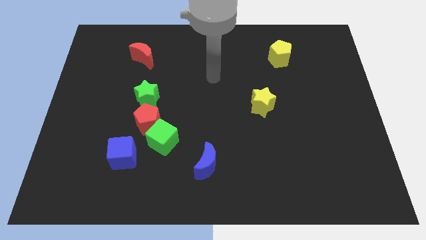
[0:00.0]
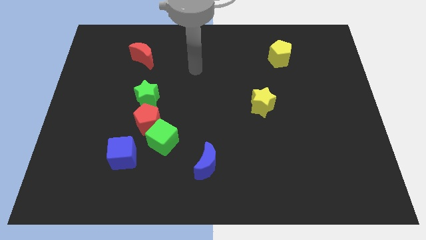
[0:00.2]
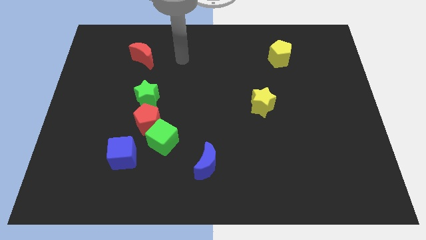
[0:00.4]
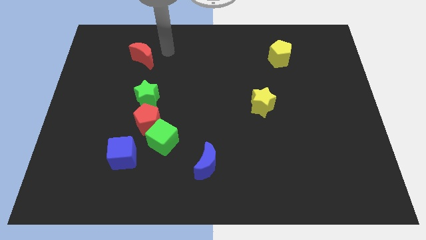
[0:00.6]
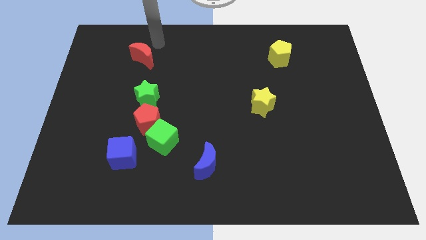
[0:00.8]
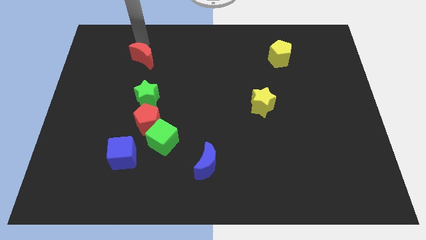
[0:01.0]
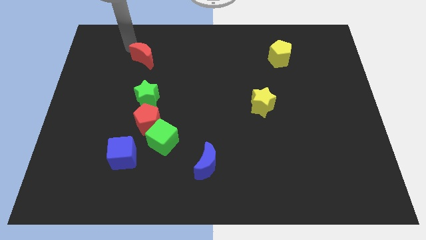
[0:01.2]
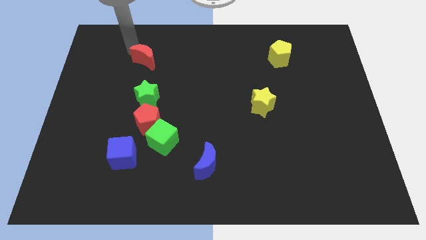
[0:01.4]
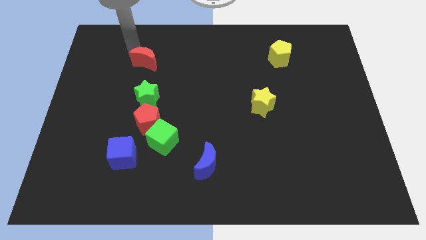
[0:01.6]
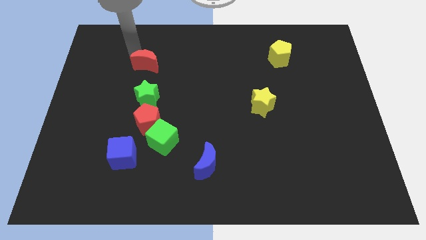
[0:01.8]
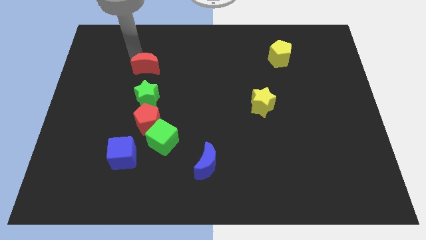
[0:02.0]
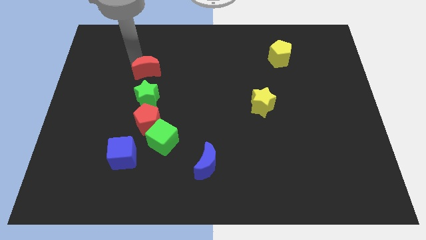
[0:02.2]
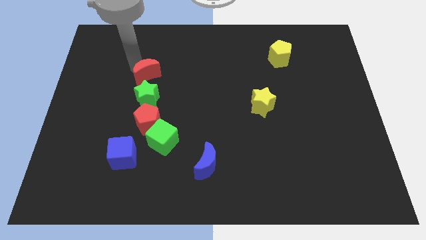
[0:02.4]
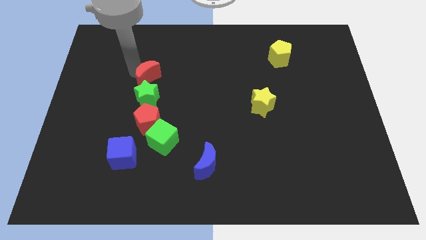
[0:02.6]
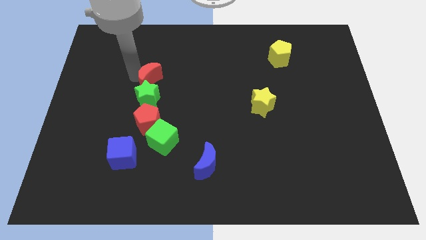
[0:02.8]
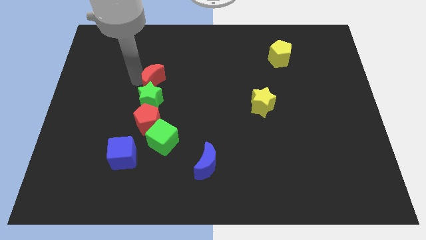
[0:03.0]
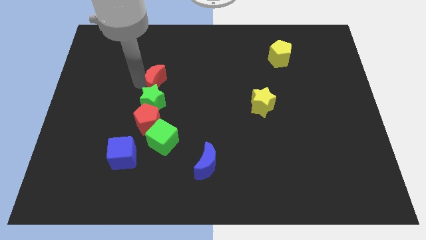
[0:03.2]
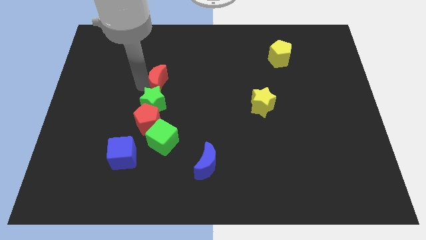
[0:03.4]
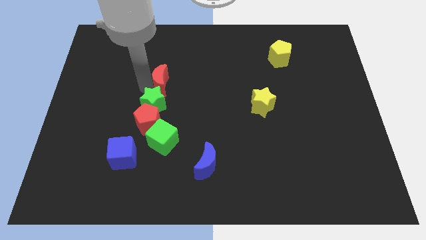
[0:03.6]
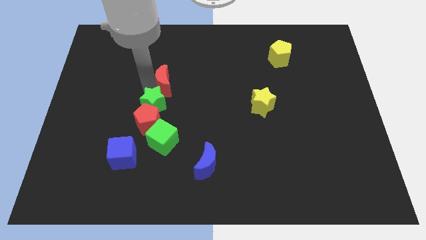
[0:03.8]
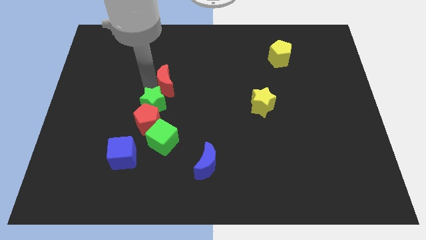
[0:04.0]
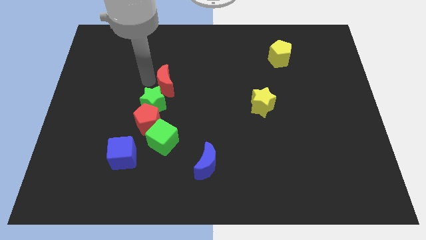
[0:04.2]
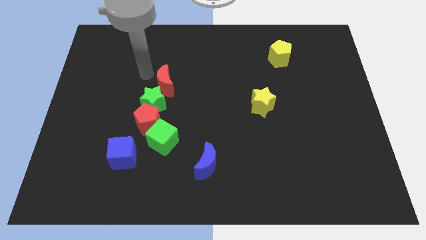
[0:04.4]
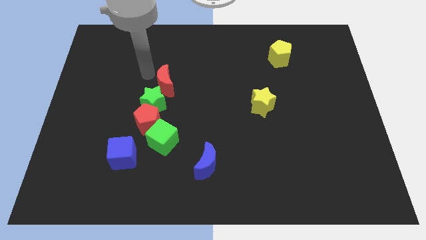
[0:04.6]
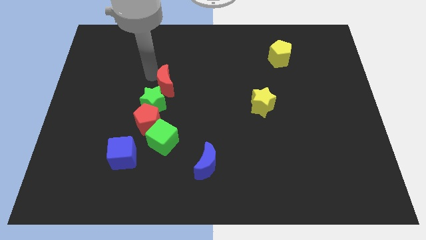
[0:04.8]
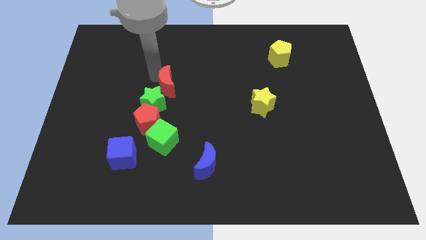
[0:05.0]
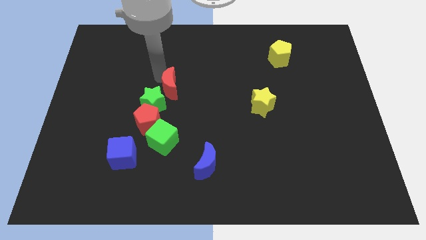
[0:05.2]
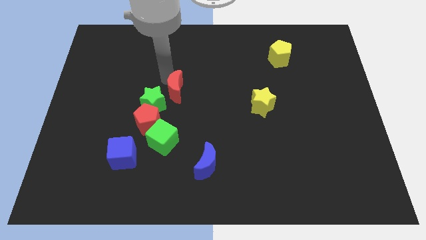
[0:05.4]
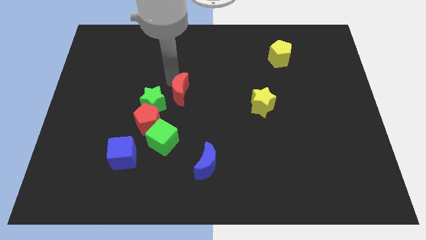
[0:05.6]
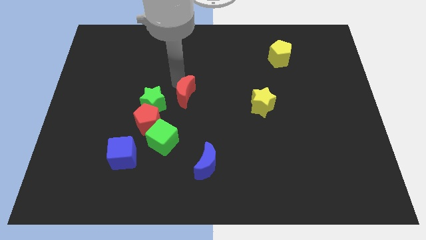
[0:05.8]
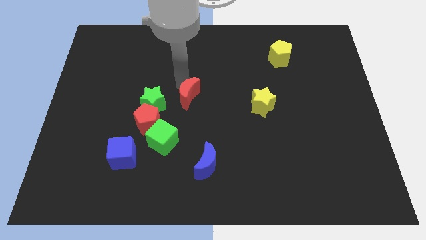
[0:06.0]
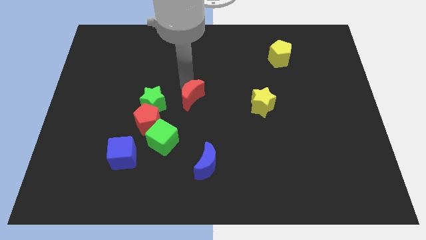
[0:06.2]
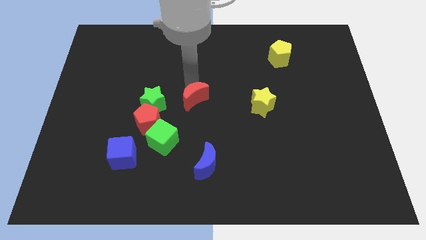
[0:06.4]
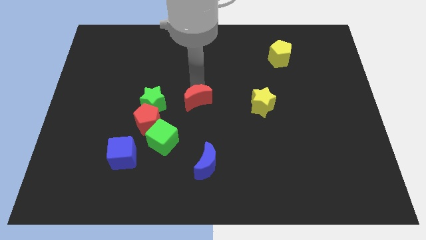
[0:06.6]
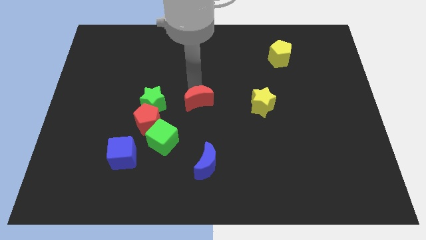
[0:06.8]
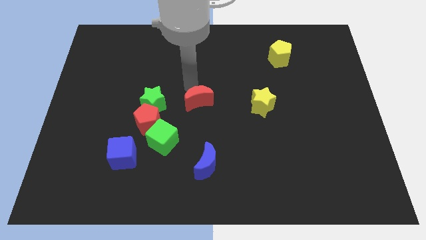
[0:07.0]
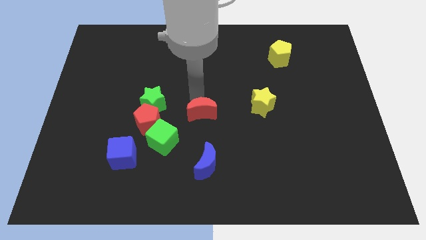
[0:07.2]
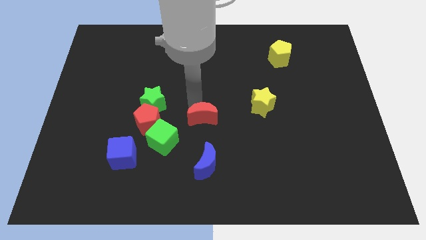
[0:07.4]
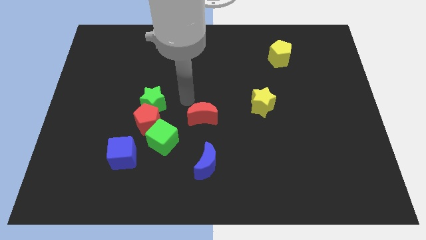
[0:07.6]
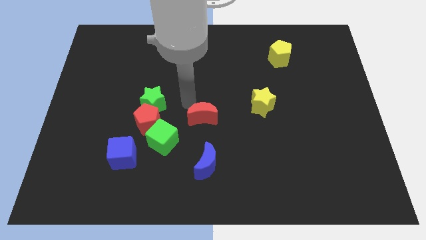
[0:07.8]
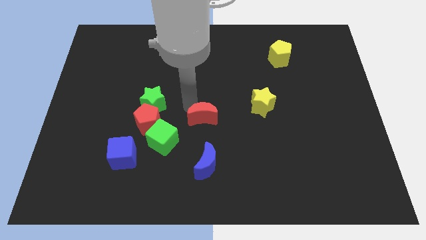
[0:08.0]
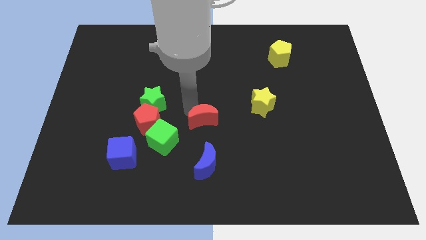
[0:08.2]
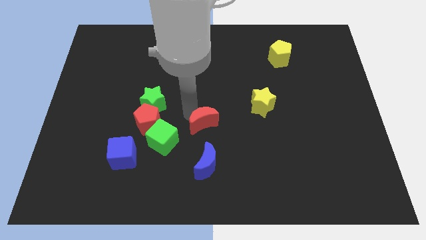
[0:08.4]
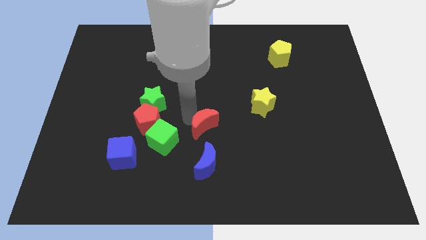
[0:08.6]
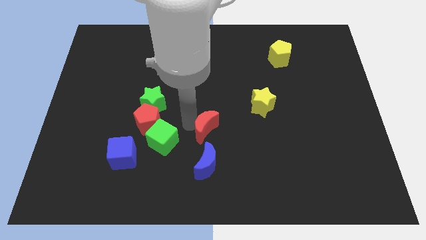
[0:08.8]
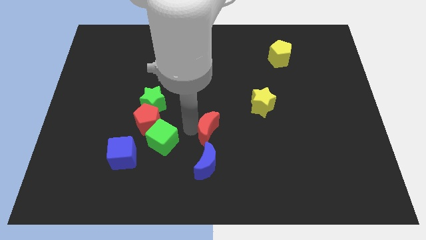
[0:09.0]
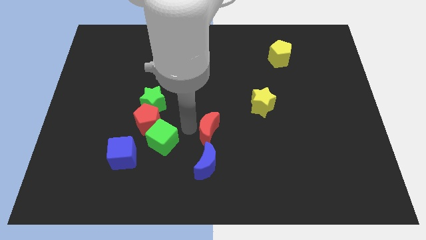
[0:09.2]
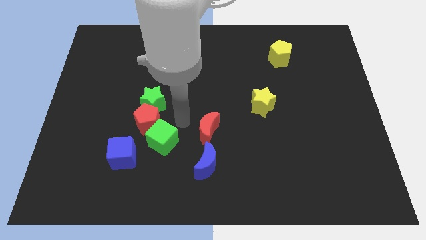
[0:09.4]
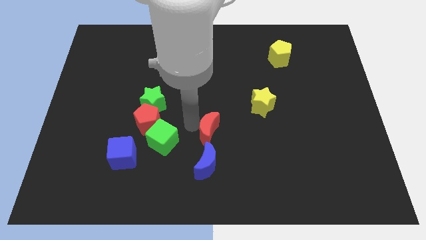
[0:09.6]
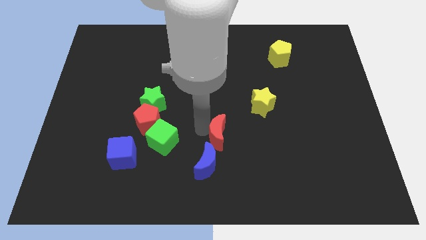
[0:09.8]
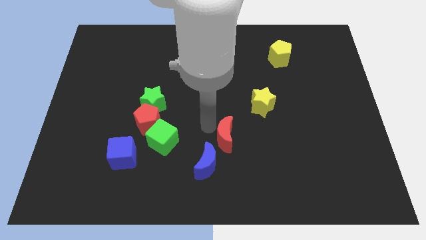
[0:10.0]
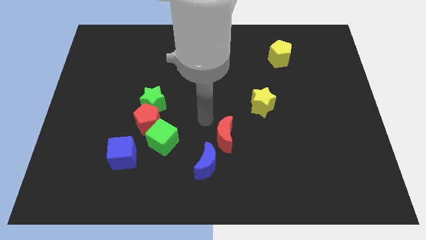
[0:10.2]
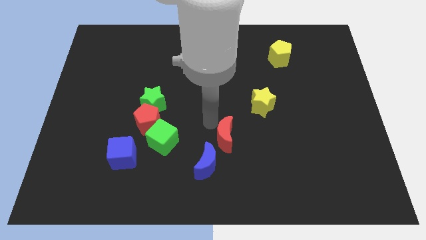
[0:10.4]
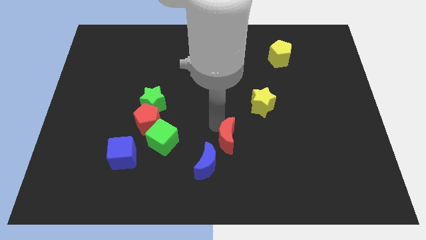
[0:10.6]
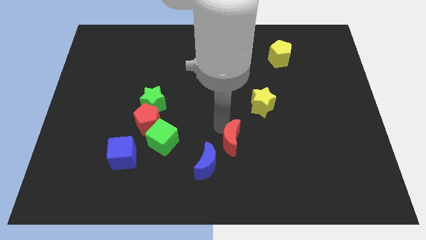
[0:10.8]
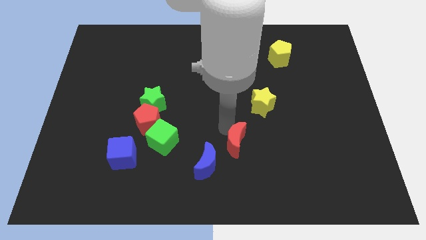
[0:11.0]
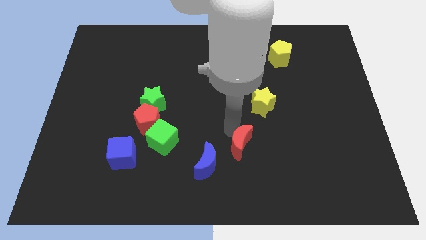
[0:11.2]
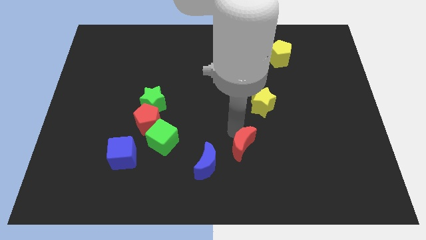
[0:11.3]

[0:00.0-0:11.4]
move the red moon just right of the blue moon

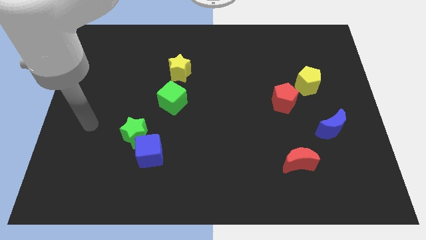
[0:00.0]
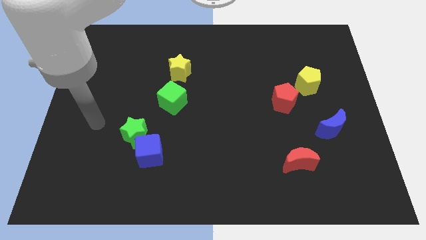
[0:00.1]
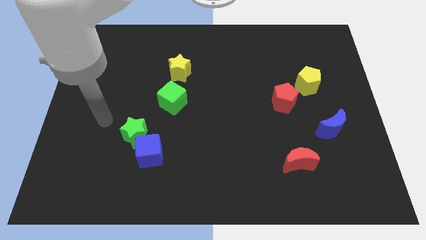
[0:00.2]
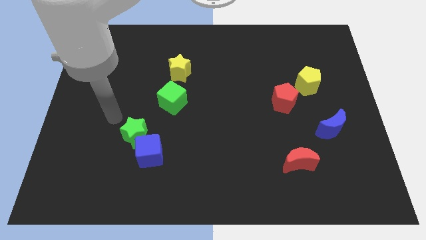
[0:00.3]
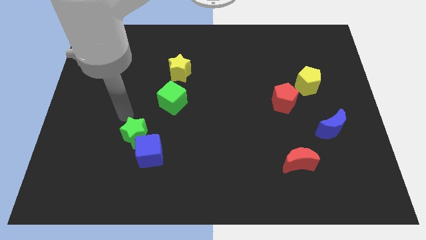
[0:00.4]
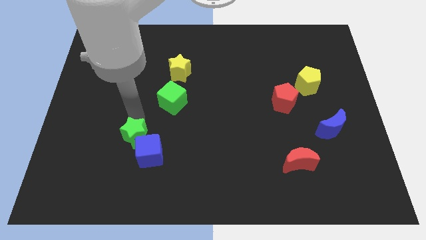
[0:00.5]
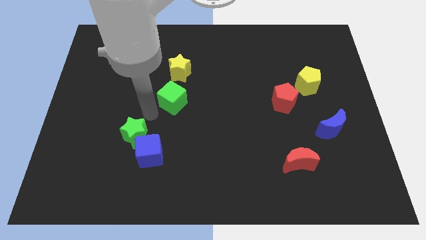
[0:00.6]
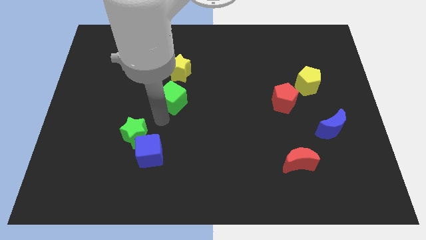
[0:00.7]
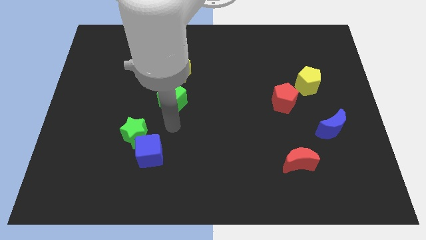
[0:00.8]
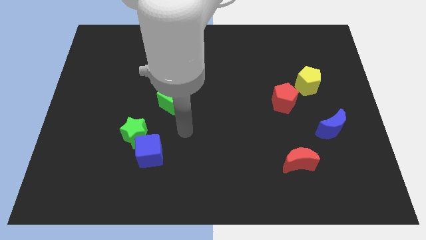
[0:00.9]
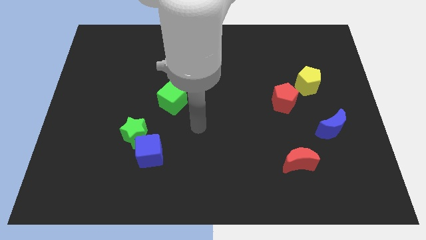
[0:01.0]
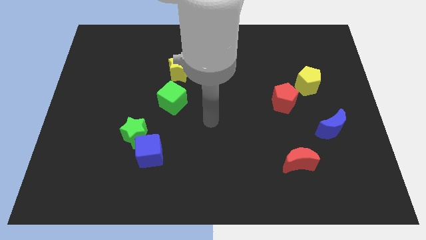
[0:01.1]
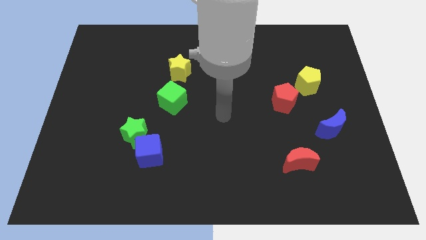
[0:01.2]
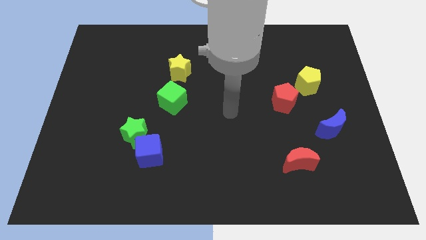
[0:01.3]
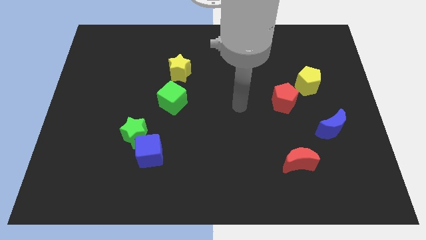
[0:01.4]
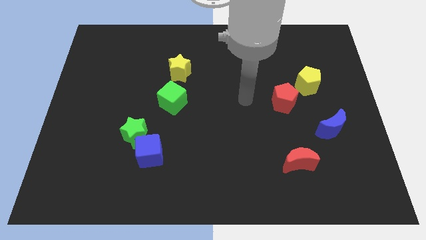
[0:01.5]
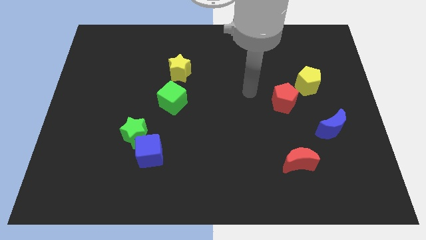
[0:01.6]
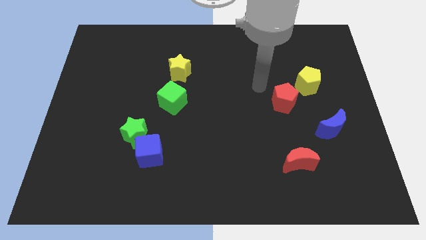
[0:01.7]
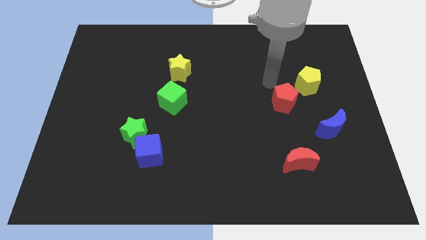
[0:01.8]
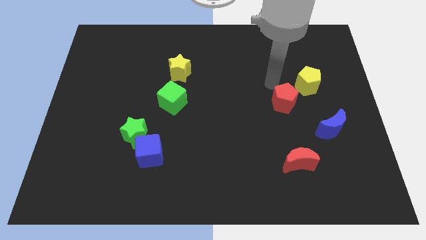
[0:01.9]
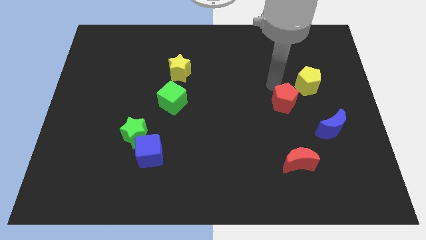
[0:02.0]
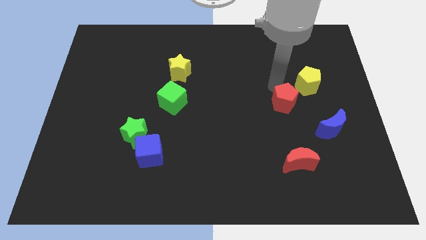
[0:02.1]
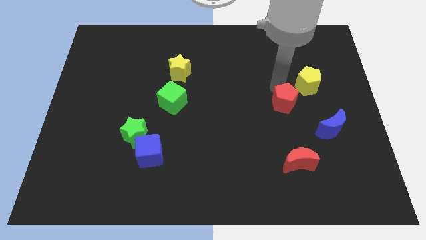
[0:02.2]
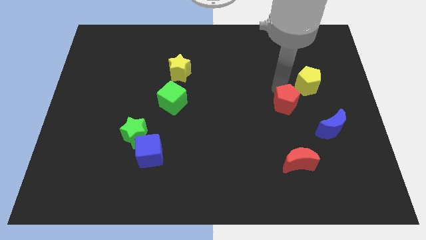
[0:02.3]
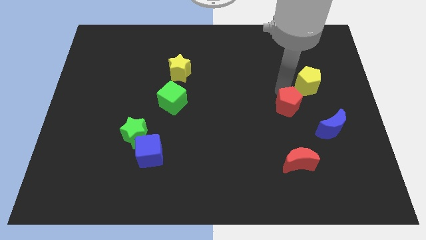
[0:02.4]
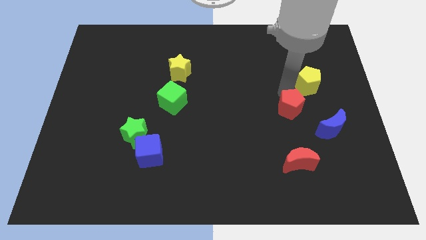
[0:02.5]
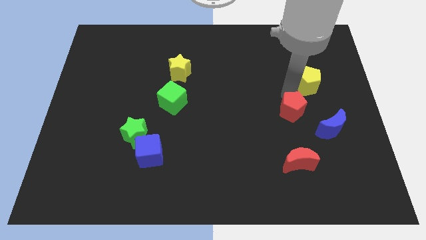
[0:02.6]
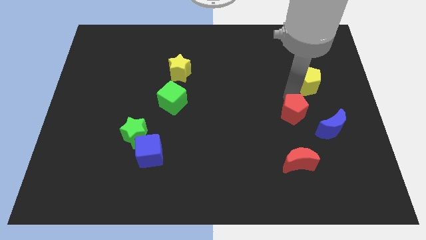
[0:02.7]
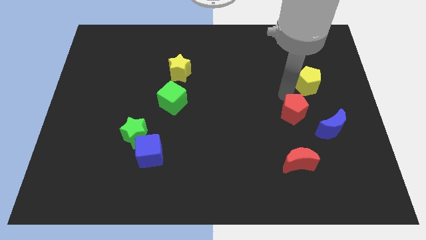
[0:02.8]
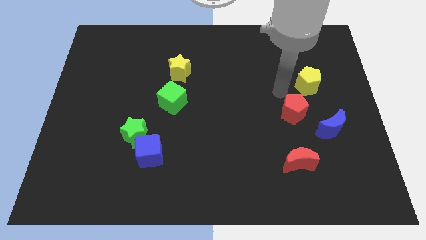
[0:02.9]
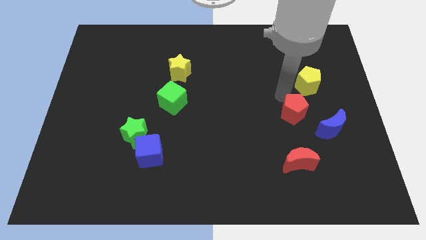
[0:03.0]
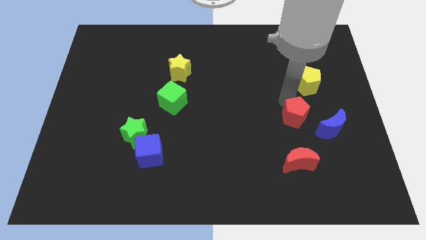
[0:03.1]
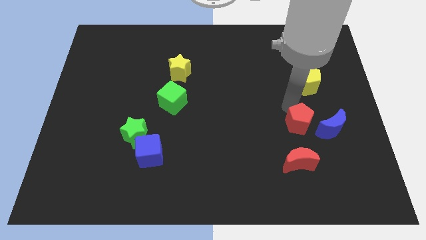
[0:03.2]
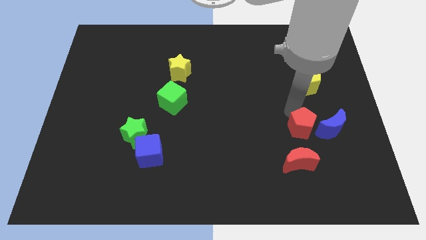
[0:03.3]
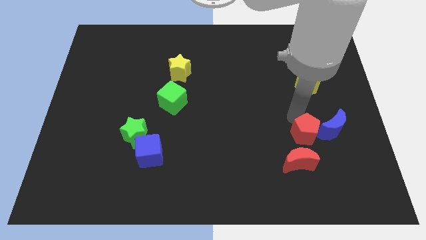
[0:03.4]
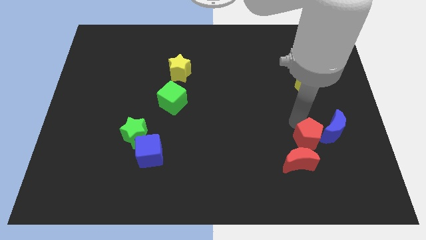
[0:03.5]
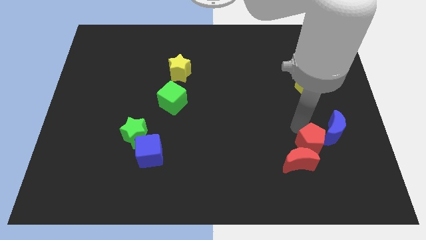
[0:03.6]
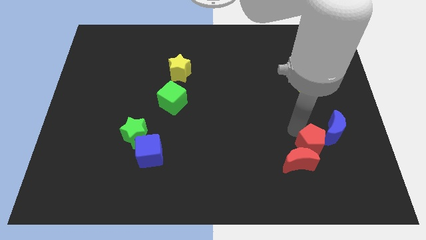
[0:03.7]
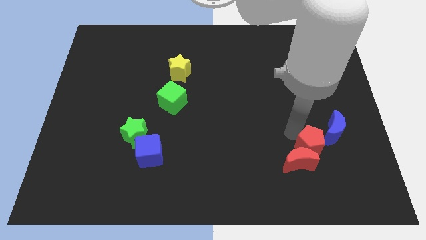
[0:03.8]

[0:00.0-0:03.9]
slide the red pentagon to the right of the red moon
